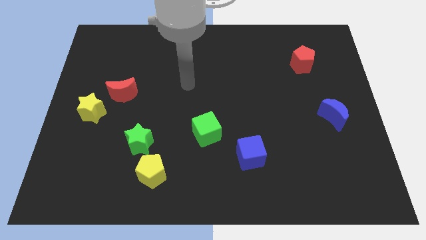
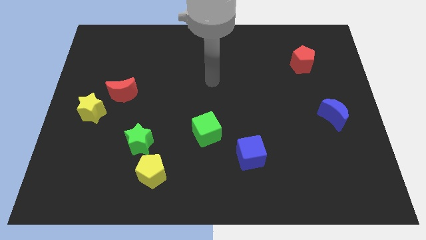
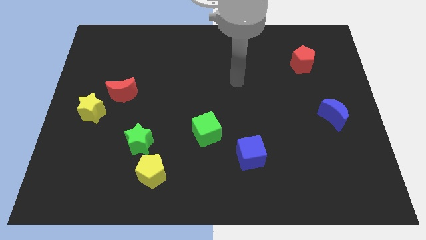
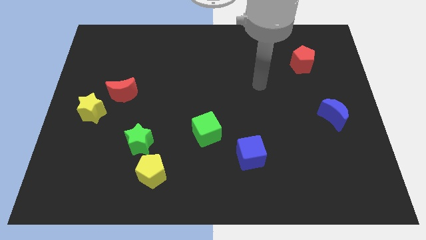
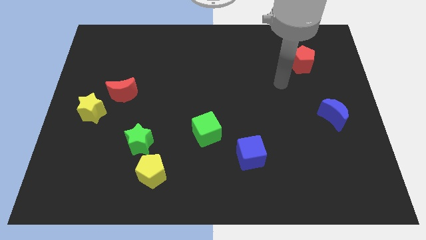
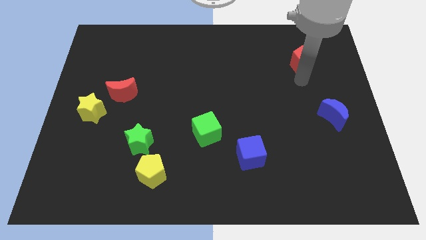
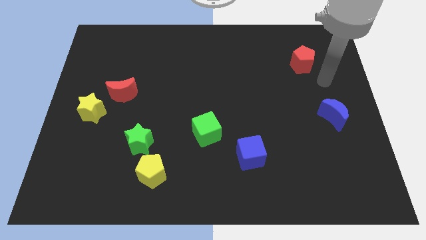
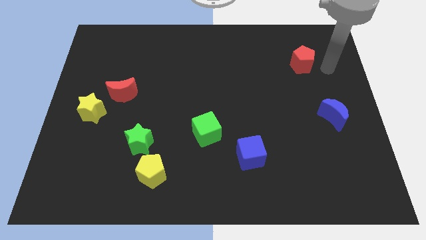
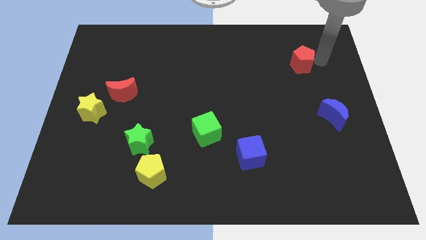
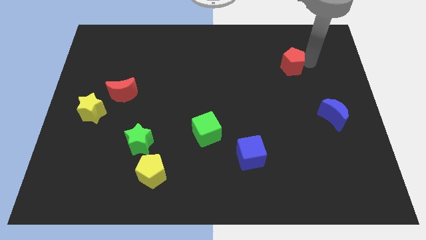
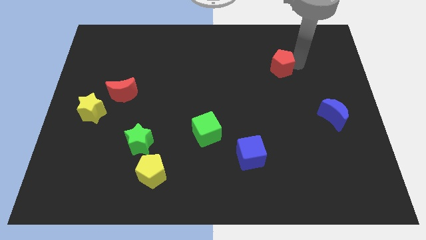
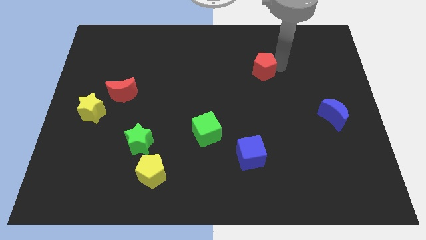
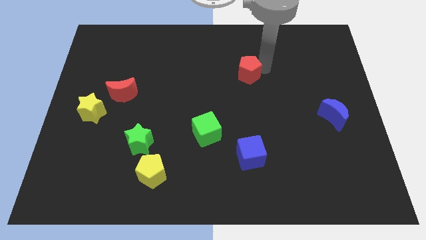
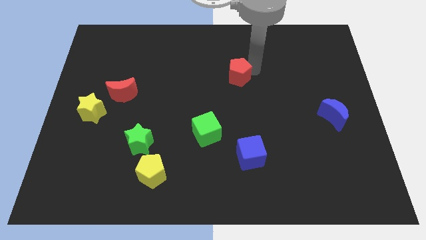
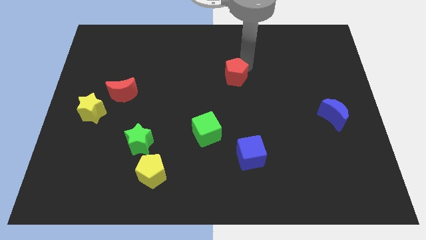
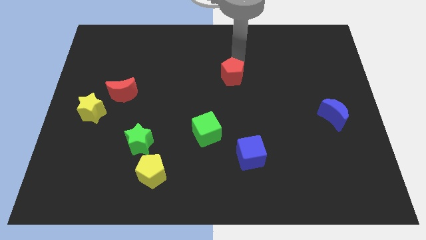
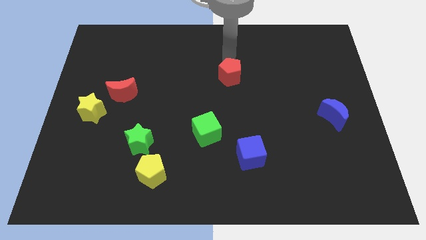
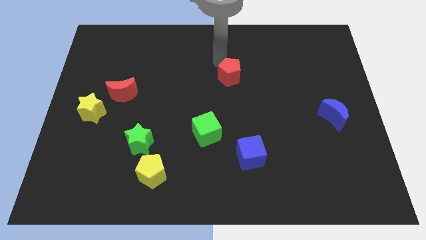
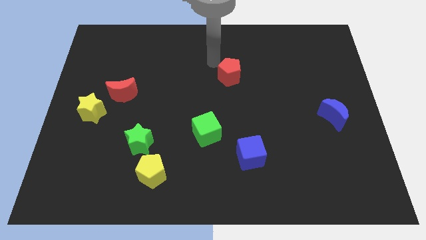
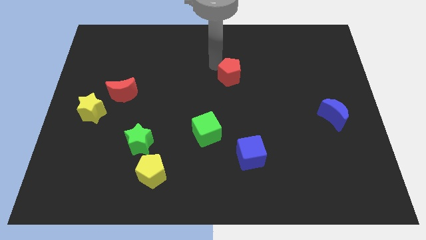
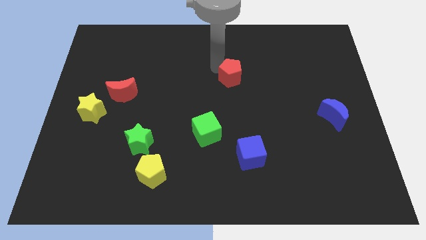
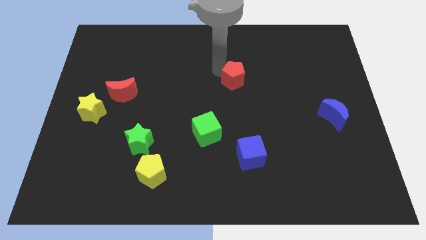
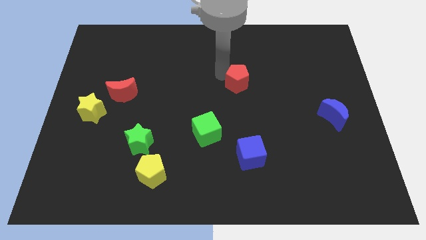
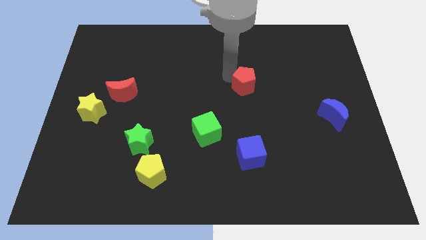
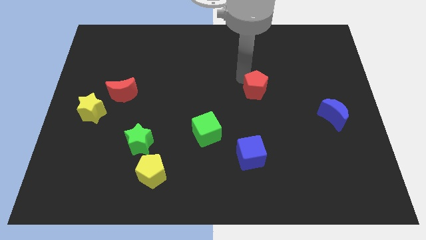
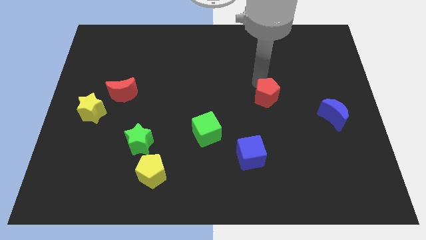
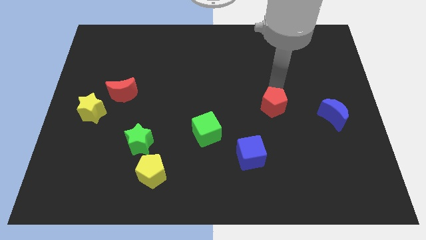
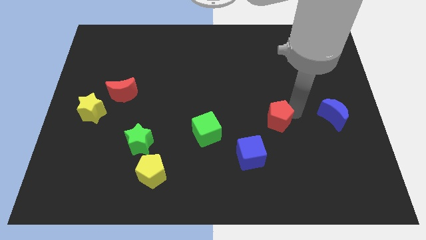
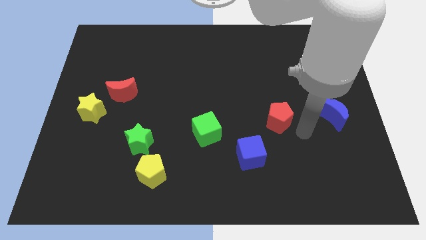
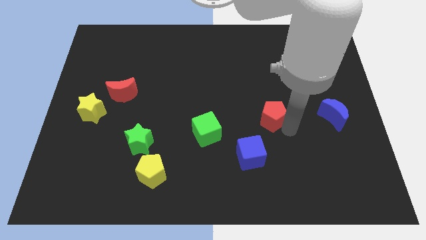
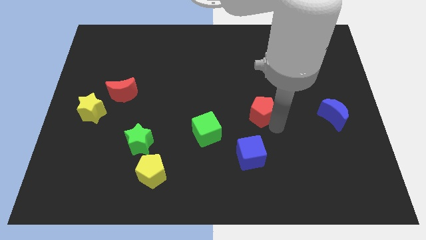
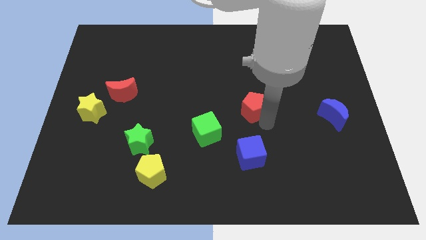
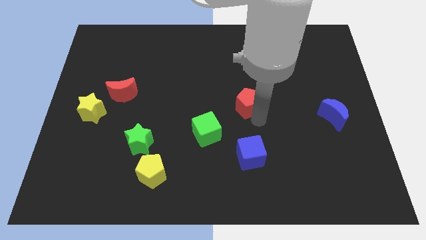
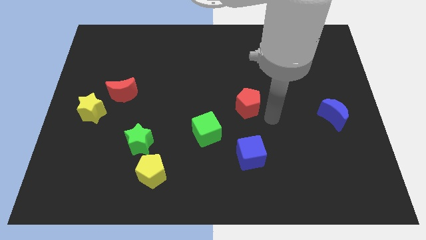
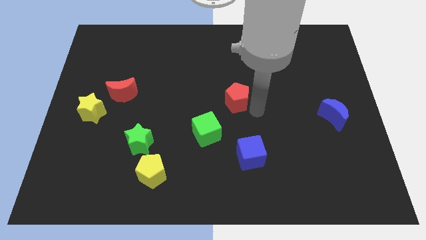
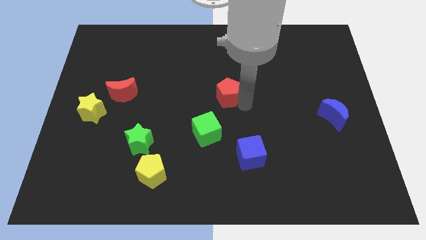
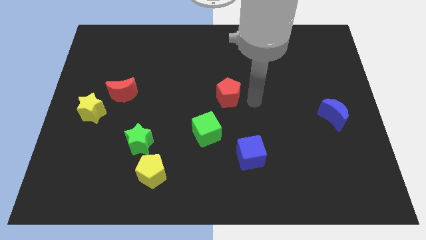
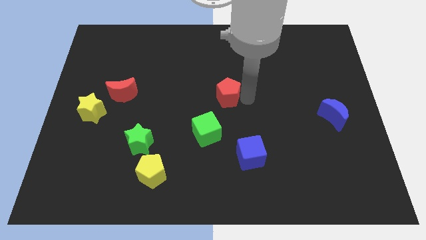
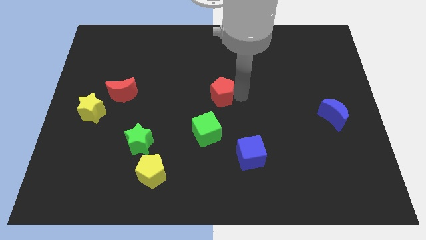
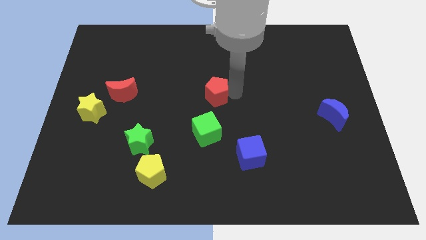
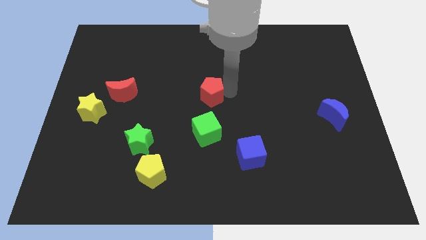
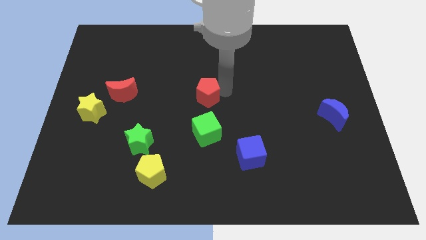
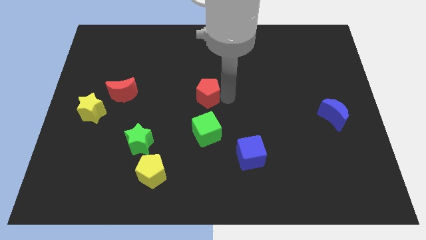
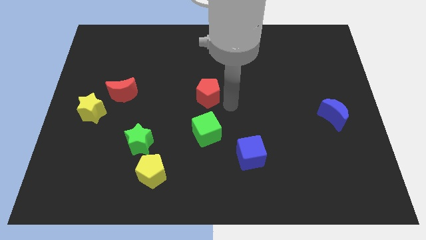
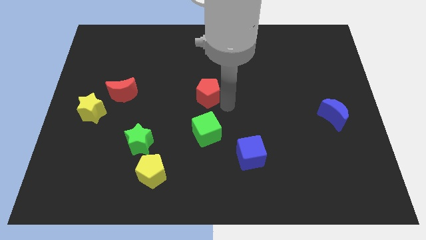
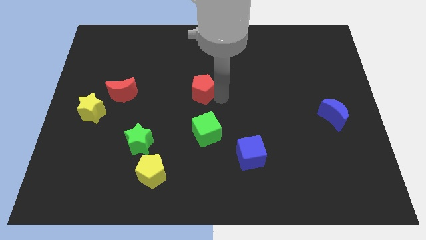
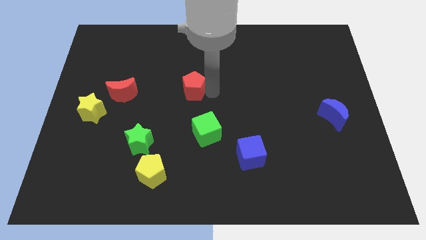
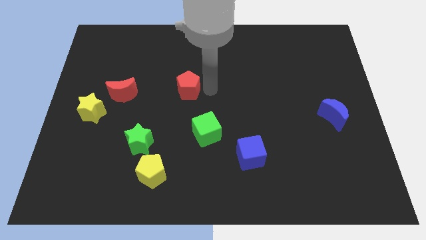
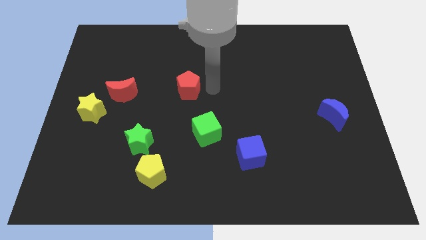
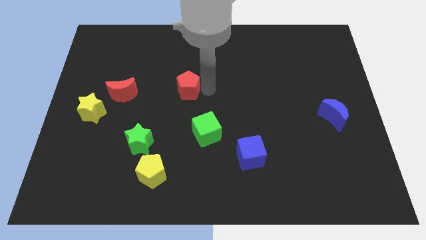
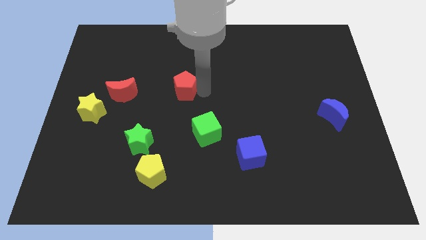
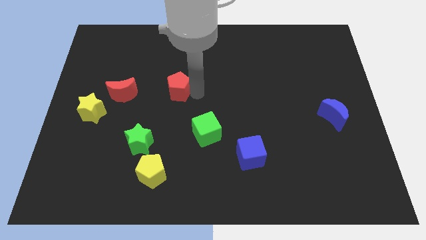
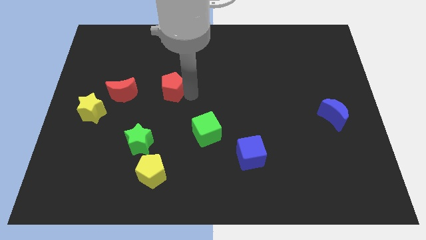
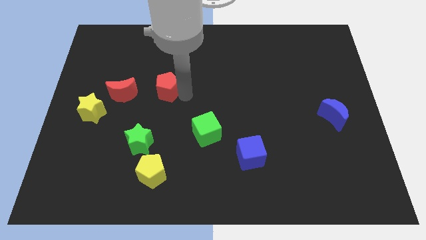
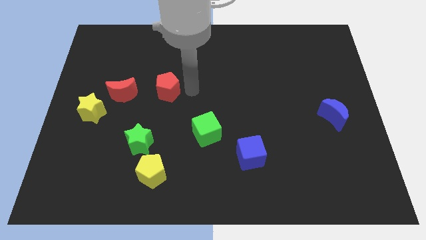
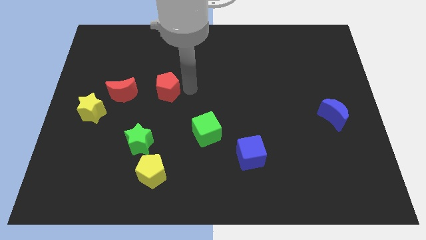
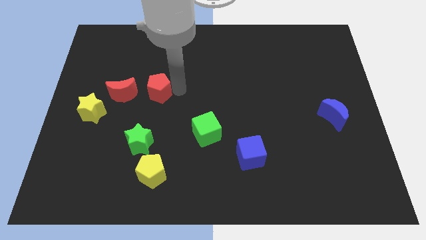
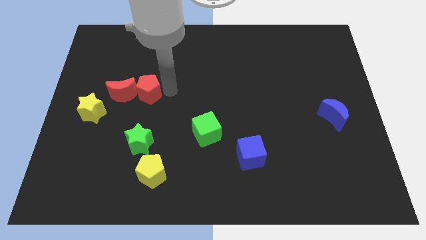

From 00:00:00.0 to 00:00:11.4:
move the red pentagon towards the red moon

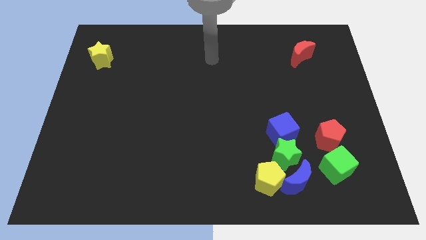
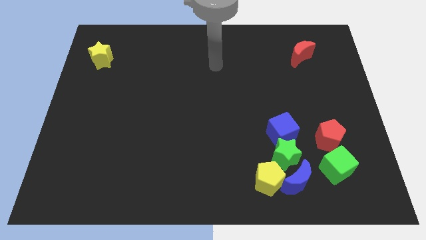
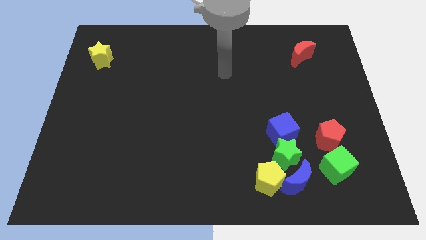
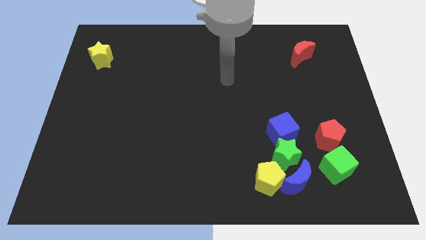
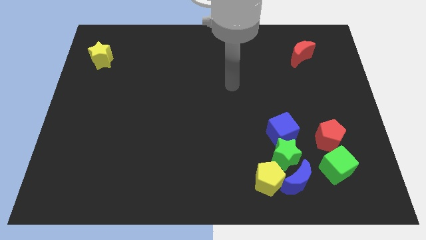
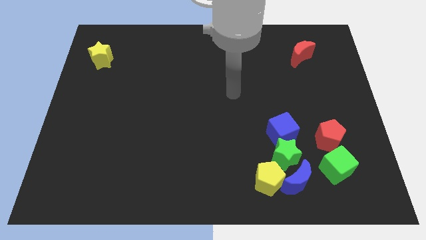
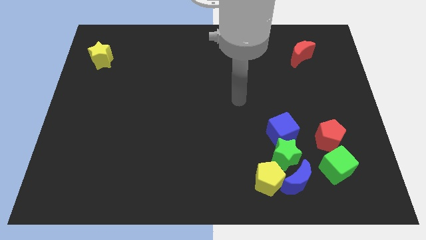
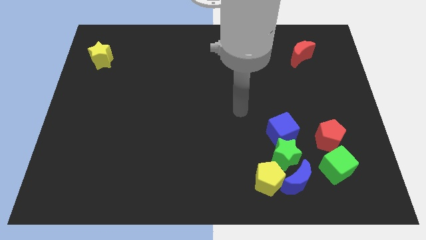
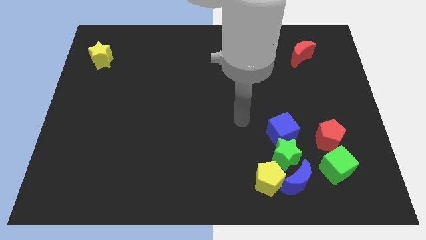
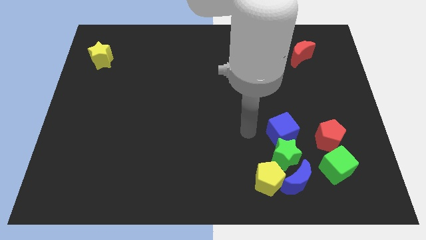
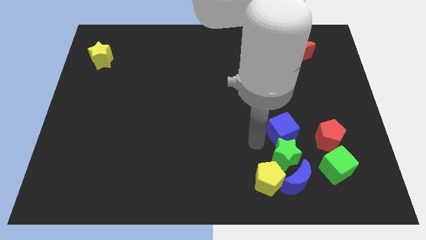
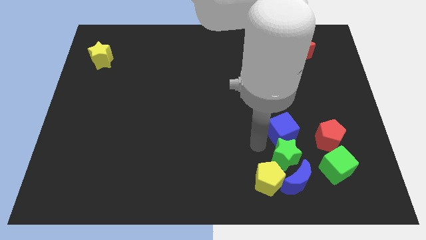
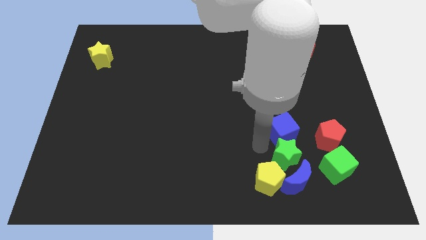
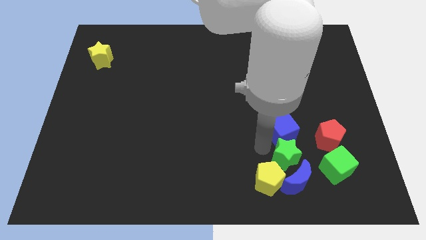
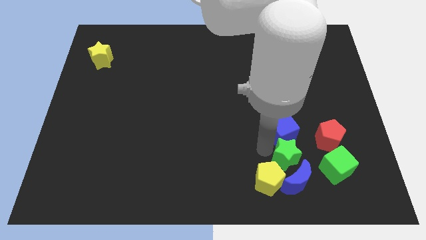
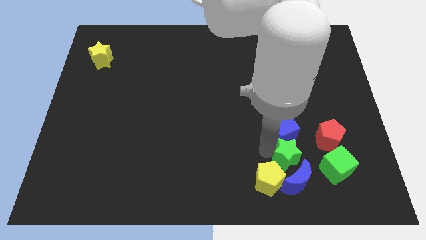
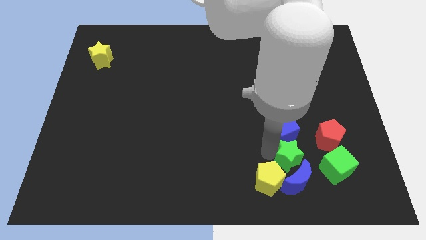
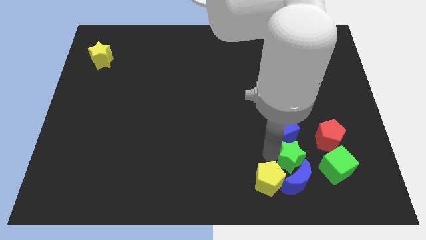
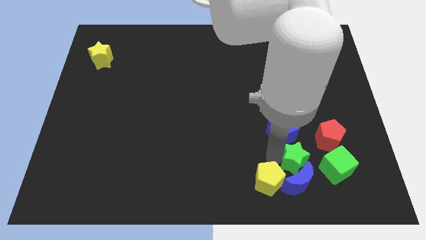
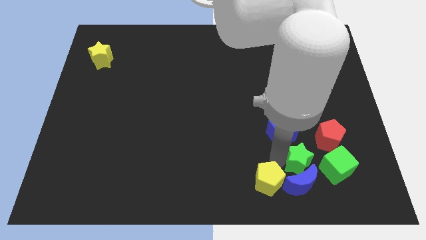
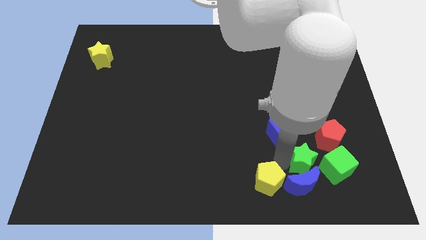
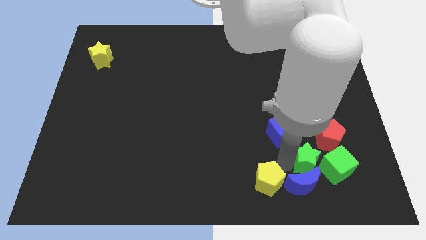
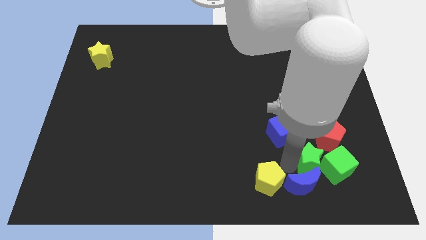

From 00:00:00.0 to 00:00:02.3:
slide the green star to the green cube
